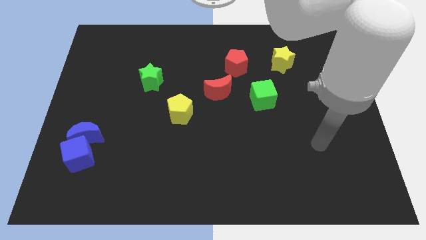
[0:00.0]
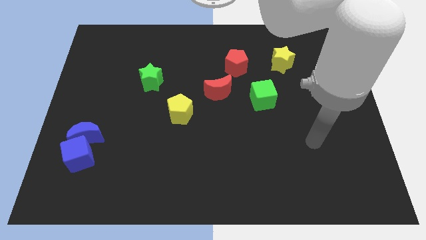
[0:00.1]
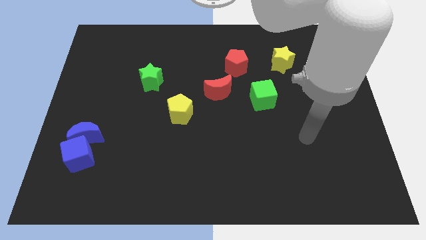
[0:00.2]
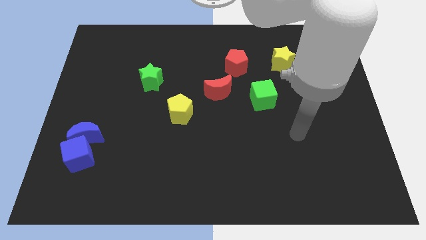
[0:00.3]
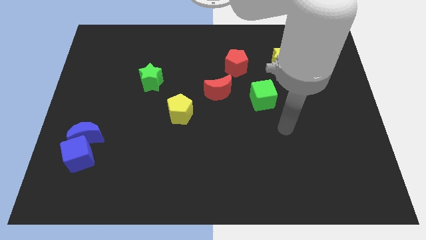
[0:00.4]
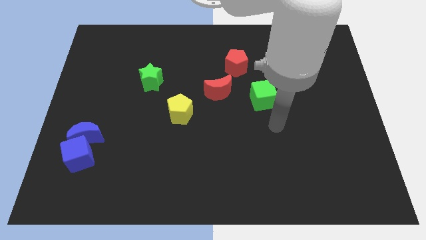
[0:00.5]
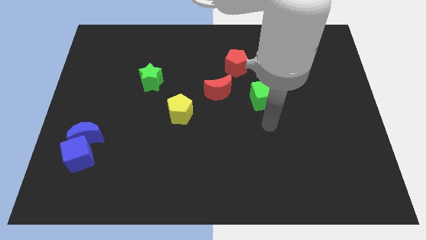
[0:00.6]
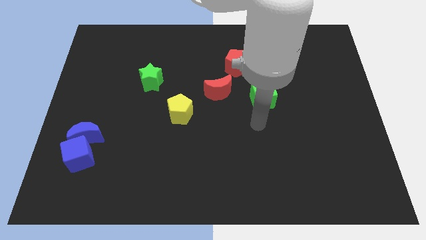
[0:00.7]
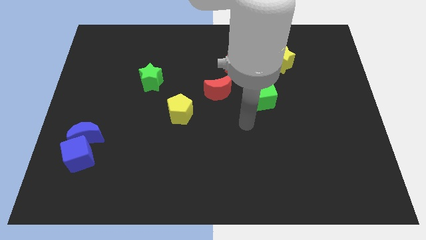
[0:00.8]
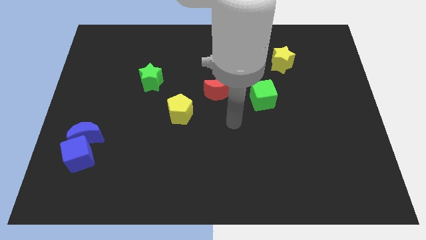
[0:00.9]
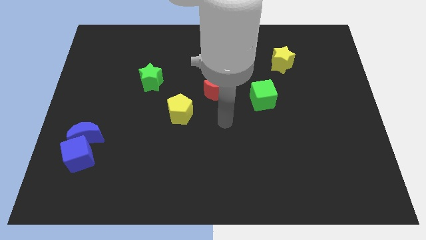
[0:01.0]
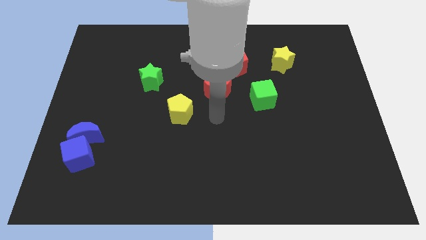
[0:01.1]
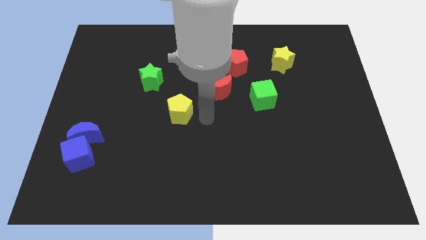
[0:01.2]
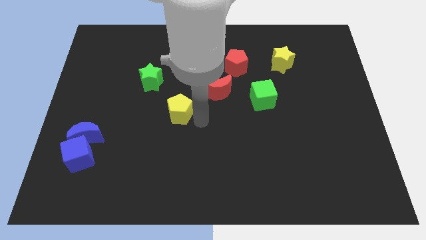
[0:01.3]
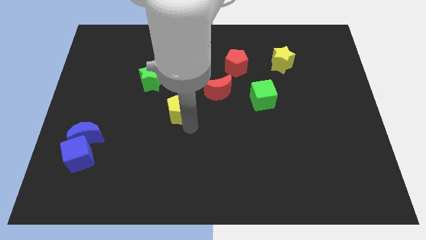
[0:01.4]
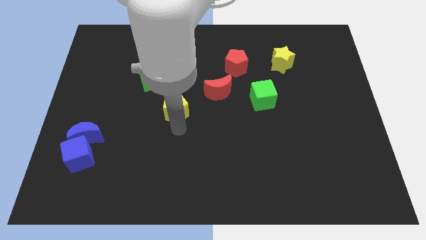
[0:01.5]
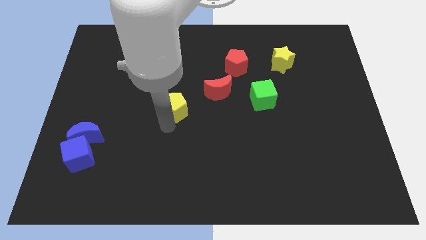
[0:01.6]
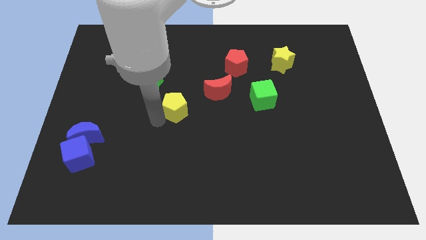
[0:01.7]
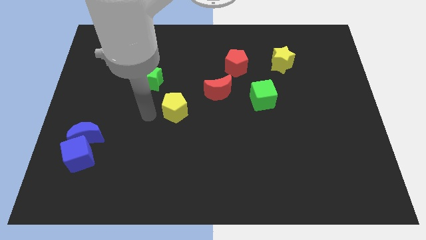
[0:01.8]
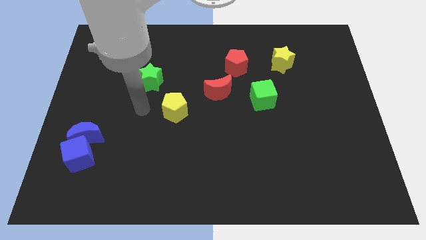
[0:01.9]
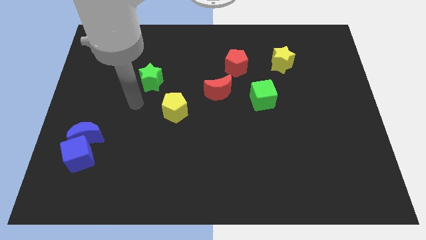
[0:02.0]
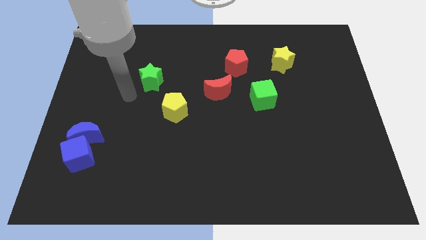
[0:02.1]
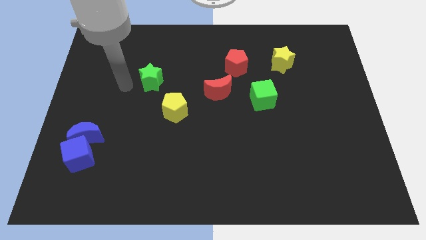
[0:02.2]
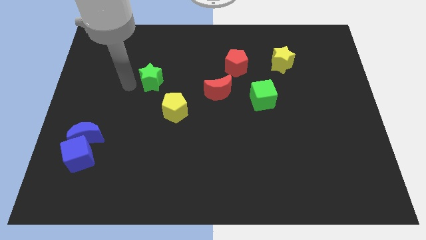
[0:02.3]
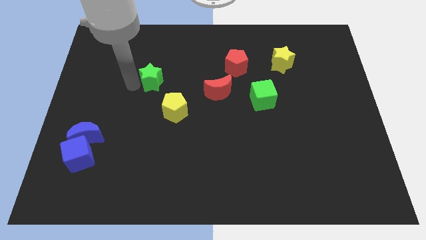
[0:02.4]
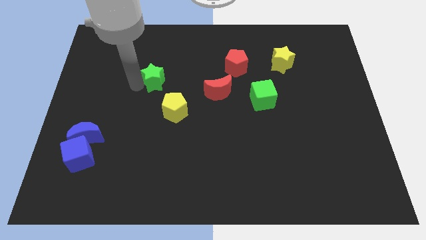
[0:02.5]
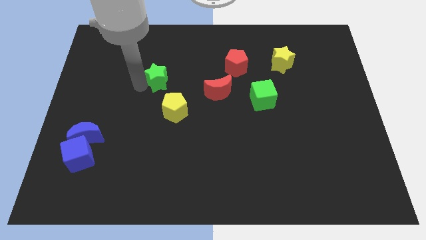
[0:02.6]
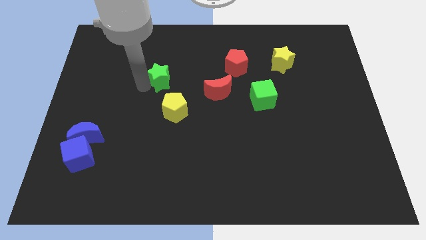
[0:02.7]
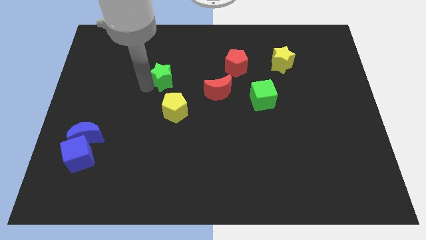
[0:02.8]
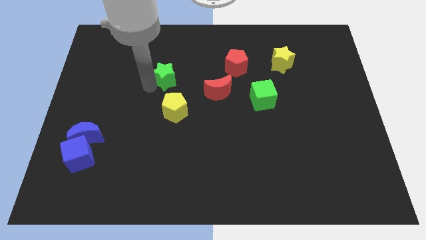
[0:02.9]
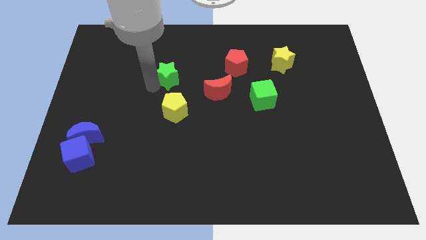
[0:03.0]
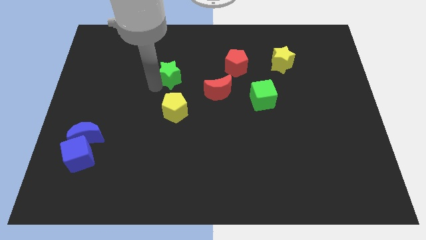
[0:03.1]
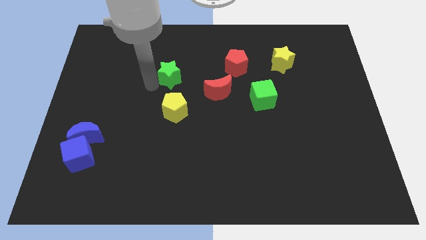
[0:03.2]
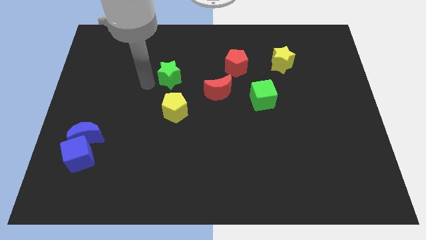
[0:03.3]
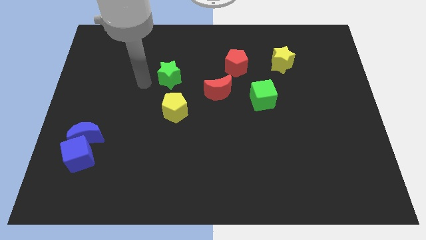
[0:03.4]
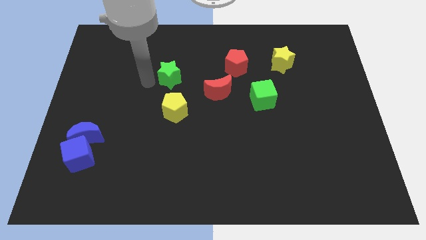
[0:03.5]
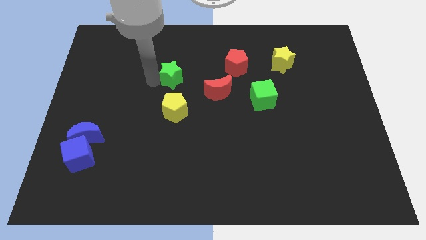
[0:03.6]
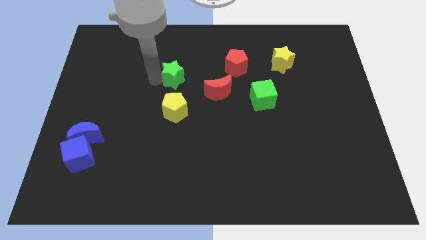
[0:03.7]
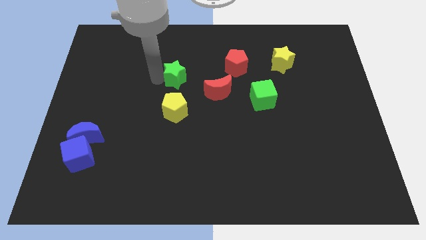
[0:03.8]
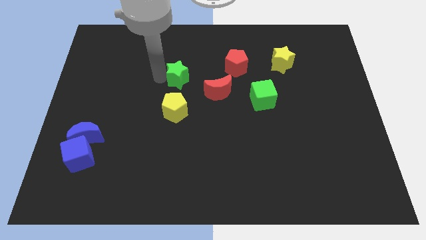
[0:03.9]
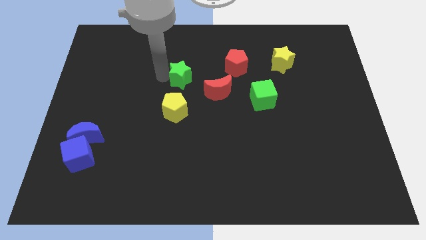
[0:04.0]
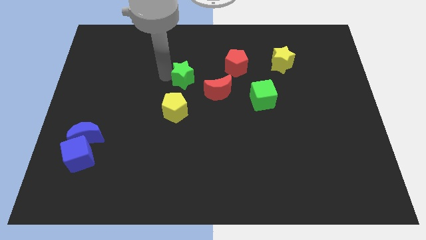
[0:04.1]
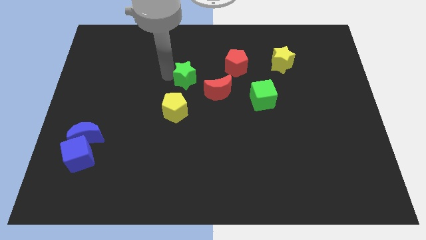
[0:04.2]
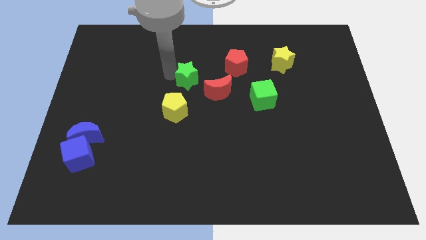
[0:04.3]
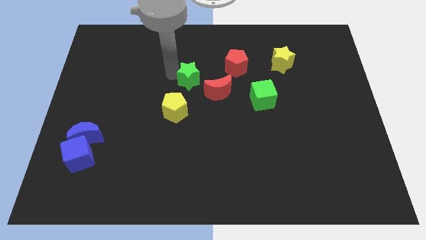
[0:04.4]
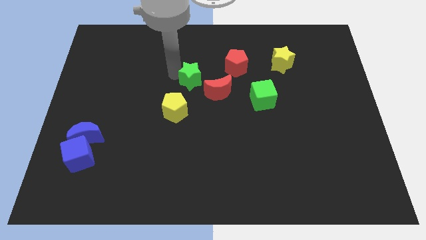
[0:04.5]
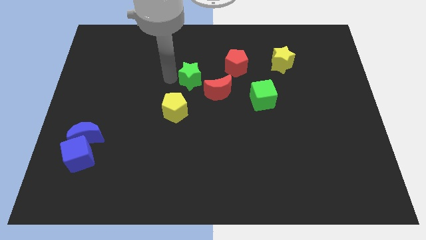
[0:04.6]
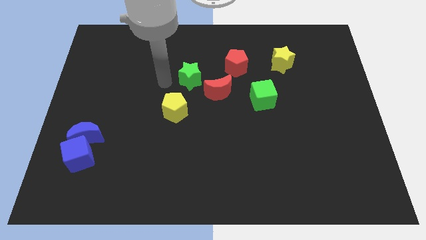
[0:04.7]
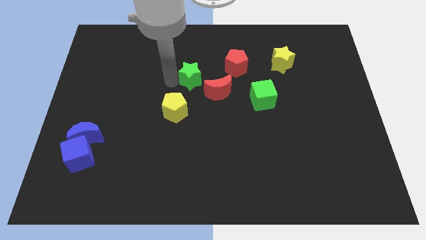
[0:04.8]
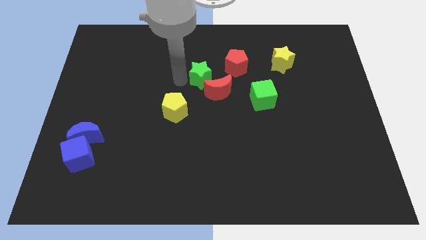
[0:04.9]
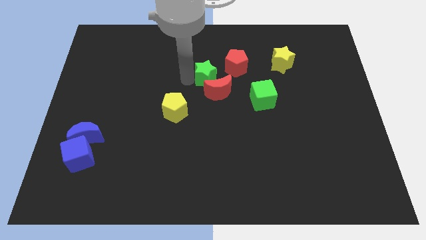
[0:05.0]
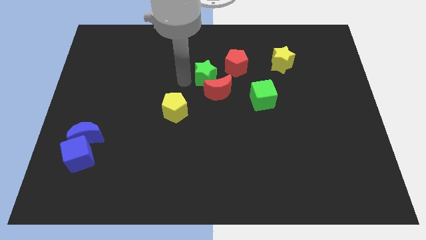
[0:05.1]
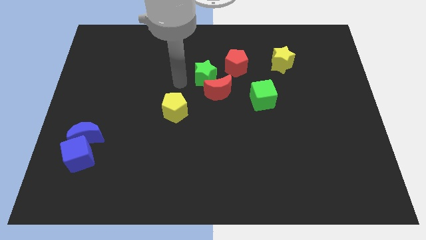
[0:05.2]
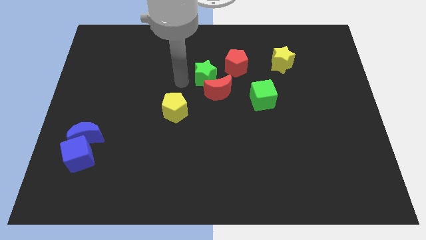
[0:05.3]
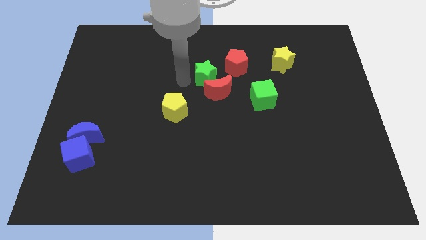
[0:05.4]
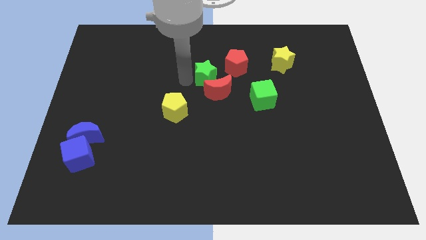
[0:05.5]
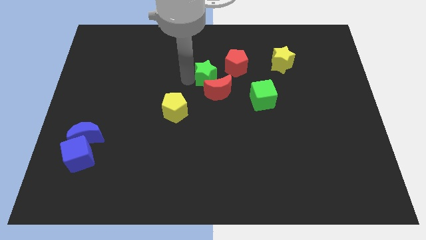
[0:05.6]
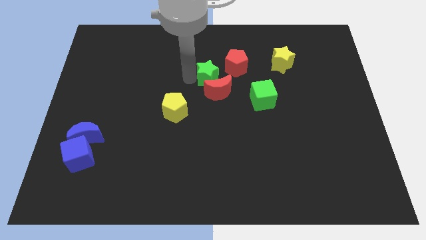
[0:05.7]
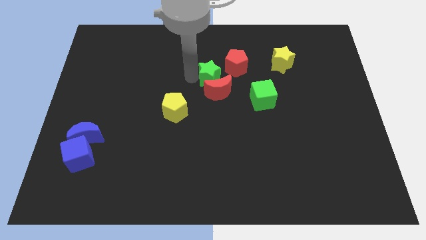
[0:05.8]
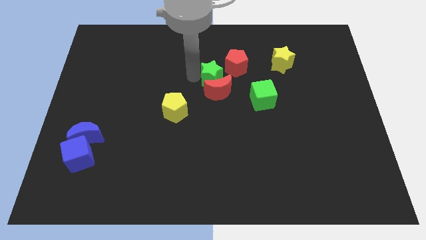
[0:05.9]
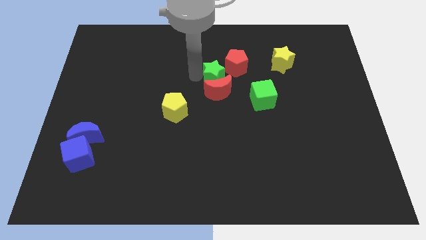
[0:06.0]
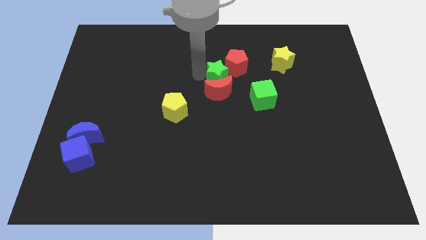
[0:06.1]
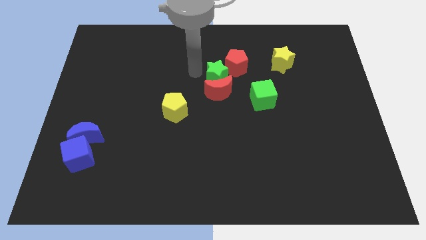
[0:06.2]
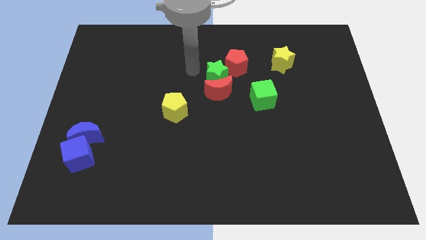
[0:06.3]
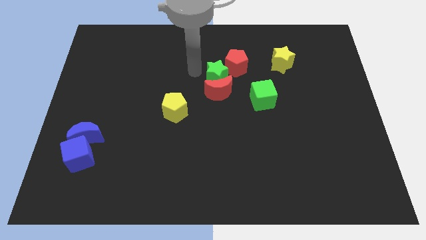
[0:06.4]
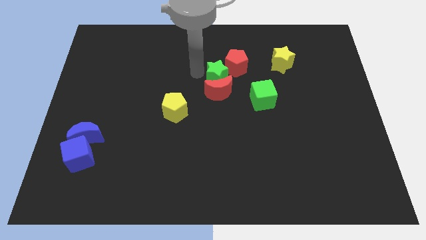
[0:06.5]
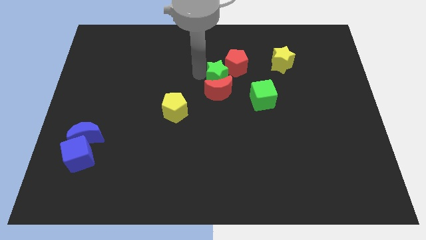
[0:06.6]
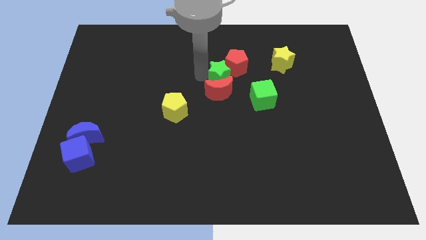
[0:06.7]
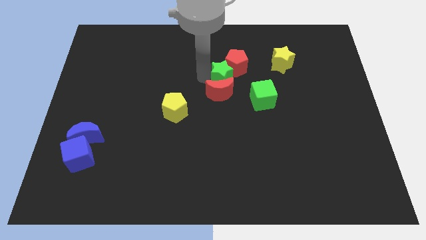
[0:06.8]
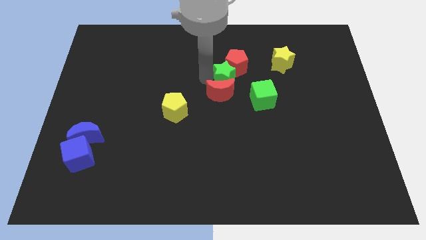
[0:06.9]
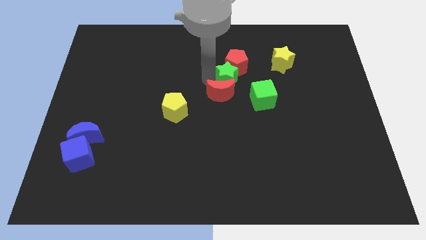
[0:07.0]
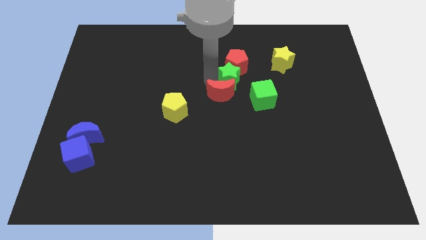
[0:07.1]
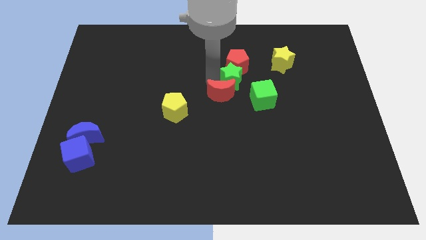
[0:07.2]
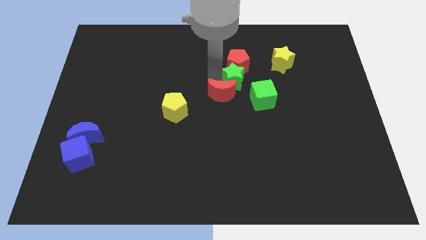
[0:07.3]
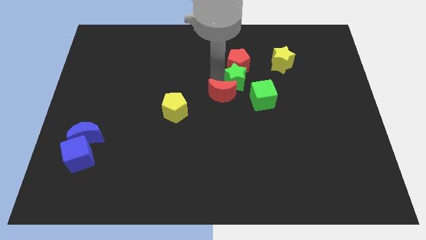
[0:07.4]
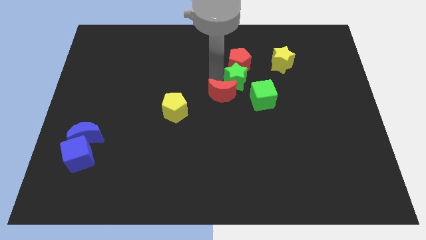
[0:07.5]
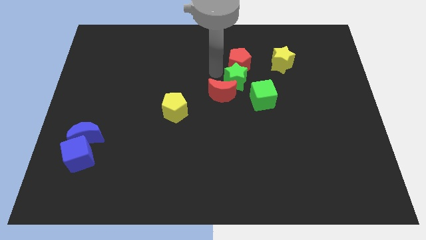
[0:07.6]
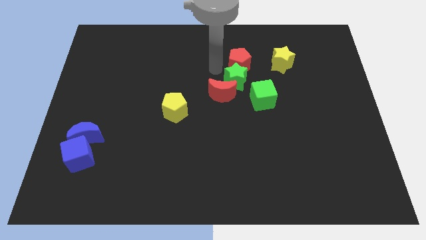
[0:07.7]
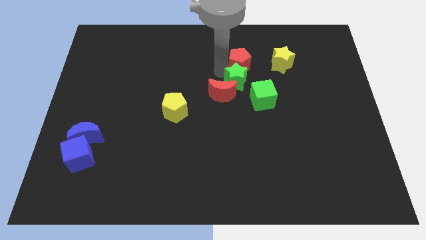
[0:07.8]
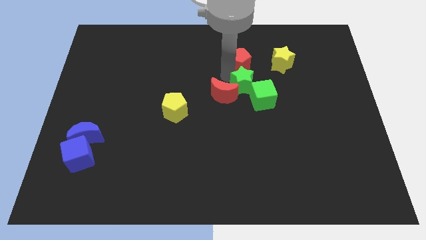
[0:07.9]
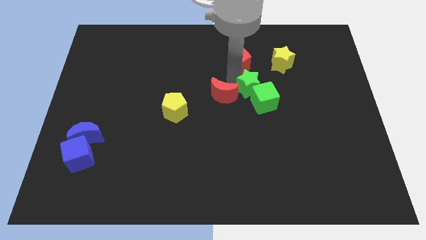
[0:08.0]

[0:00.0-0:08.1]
slide the green star to the green cube
